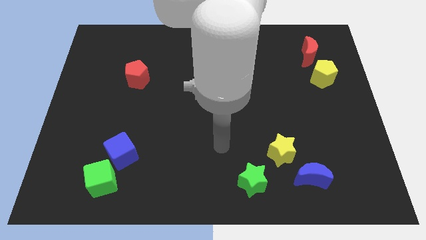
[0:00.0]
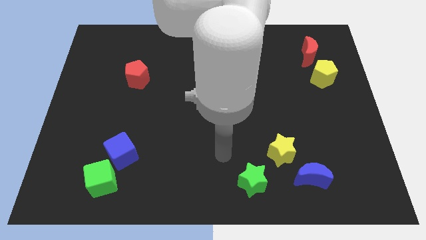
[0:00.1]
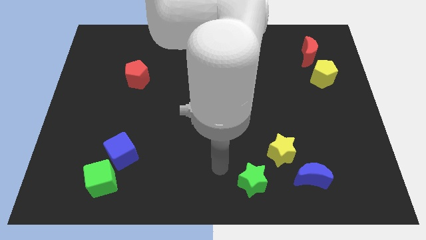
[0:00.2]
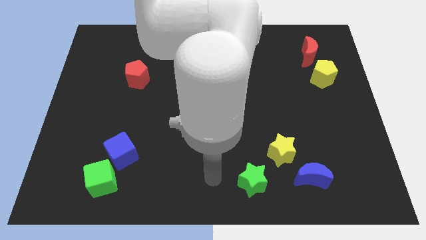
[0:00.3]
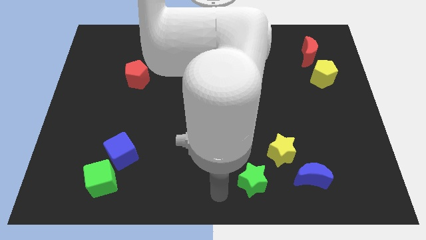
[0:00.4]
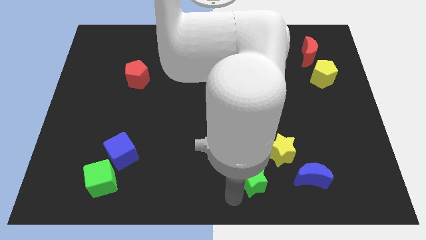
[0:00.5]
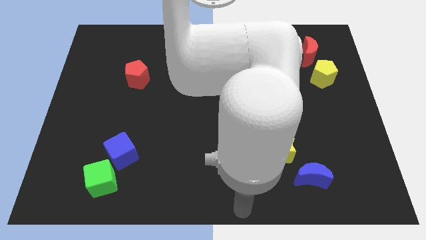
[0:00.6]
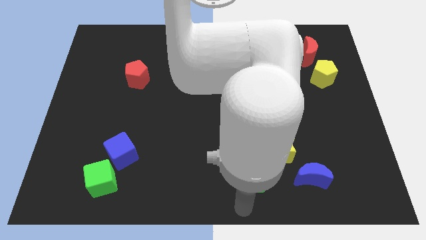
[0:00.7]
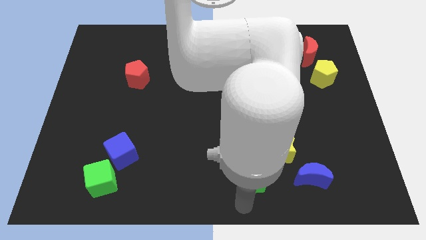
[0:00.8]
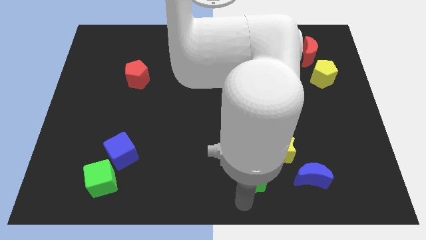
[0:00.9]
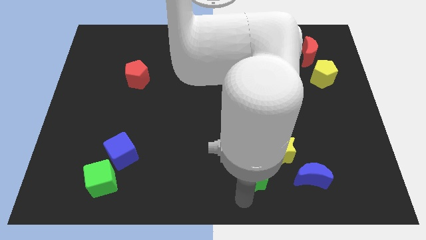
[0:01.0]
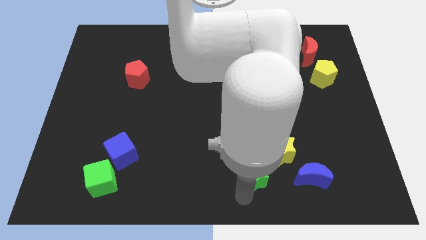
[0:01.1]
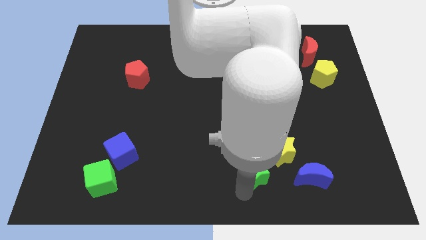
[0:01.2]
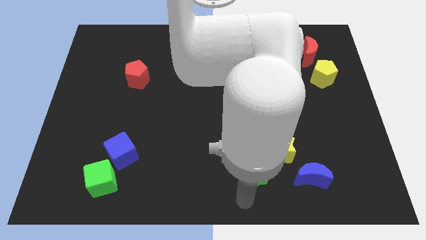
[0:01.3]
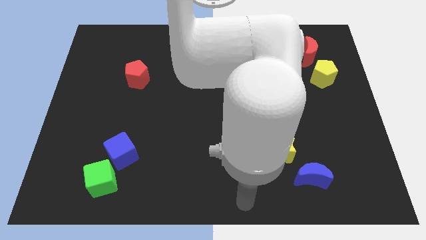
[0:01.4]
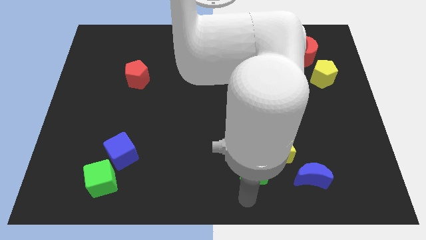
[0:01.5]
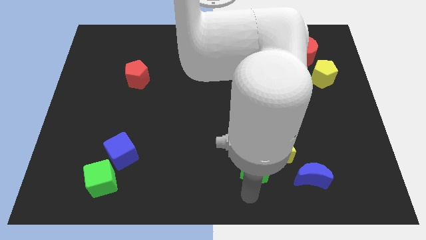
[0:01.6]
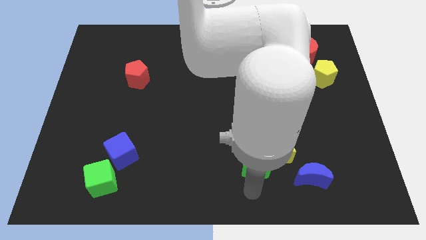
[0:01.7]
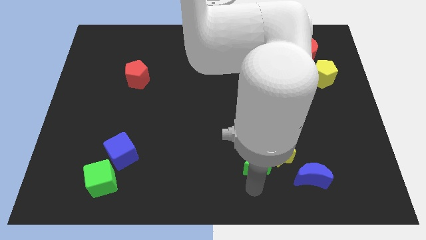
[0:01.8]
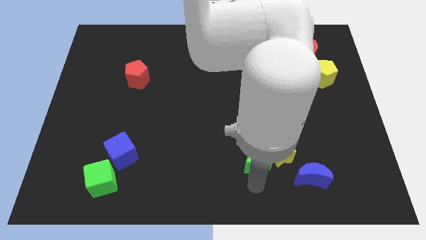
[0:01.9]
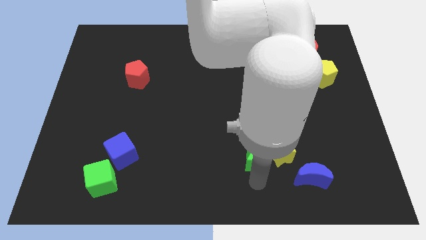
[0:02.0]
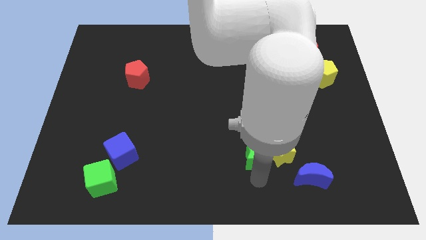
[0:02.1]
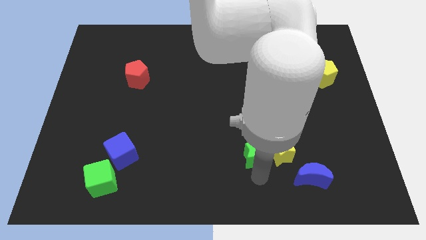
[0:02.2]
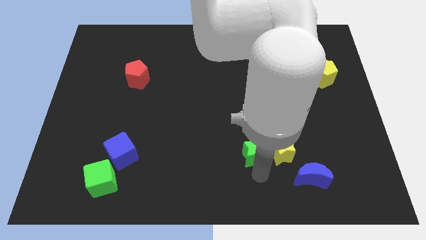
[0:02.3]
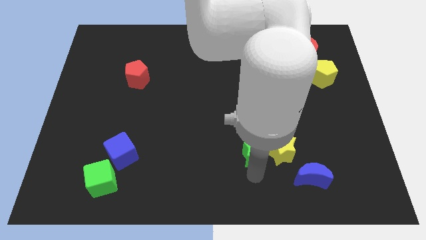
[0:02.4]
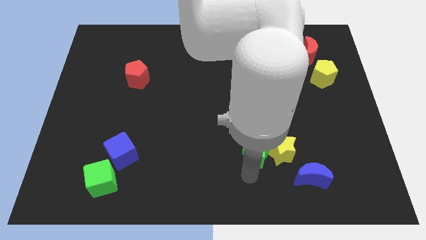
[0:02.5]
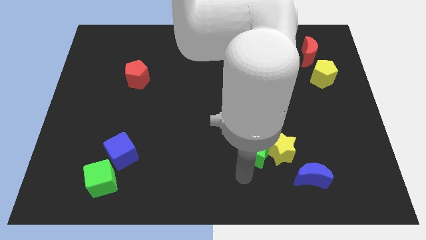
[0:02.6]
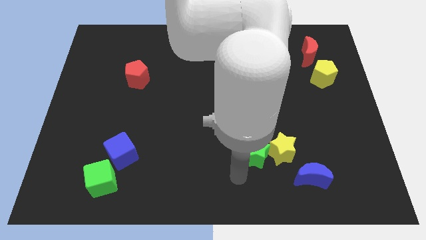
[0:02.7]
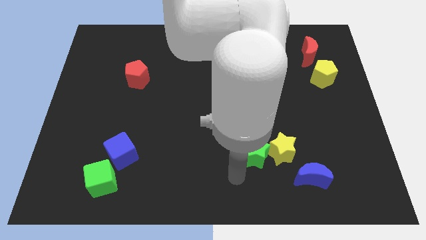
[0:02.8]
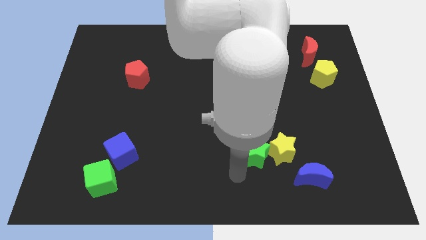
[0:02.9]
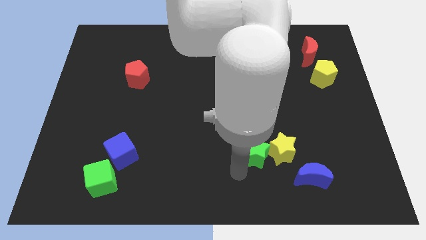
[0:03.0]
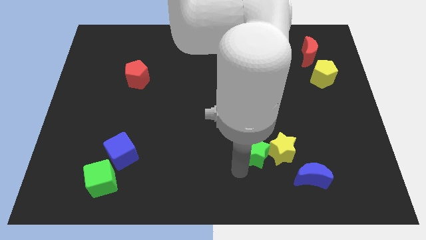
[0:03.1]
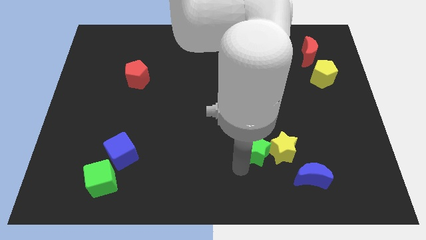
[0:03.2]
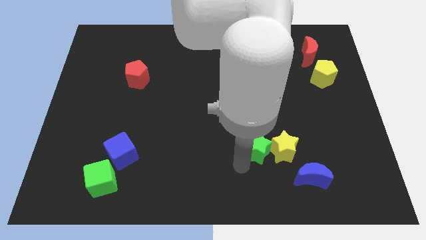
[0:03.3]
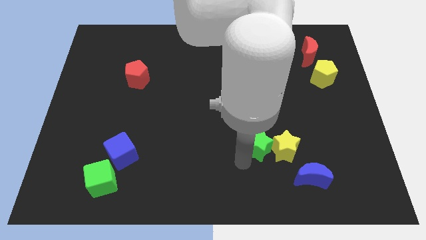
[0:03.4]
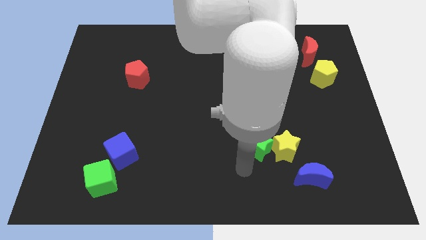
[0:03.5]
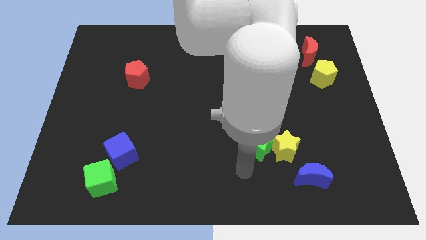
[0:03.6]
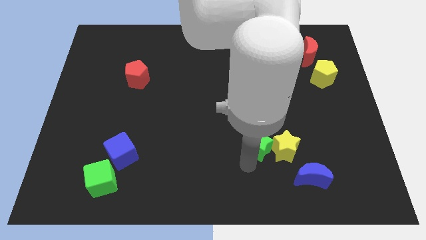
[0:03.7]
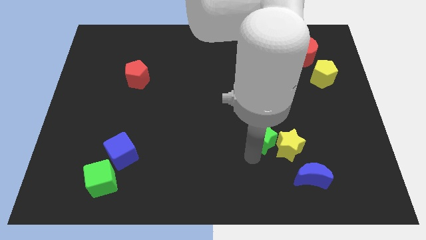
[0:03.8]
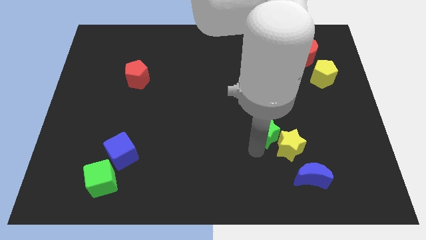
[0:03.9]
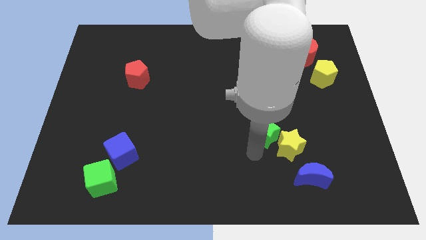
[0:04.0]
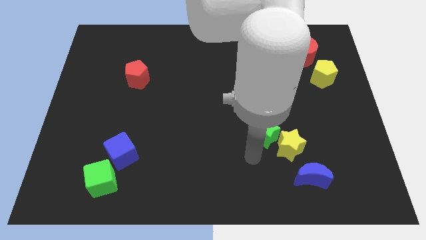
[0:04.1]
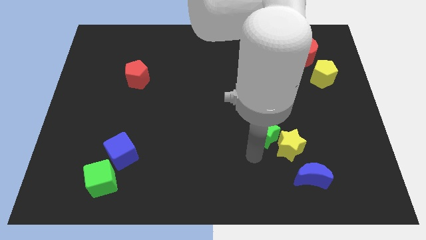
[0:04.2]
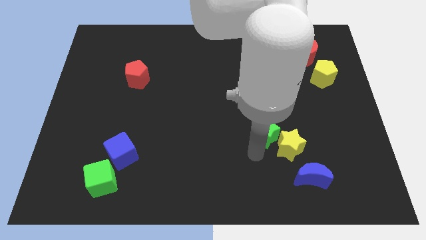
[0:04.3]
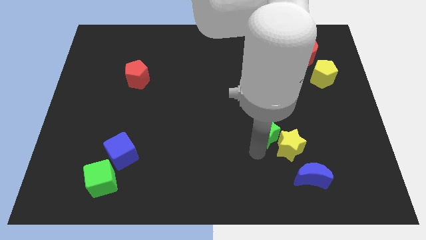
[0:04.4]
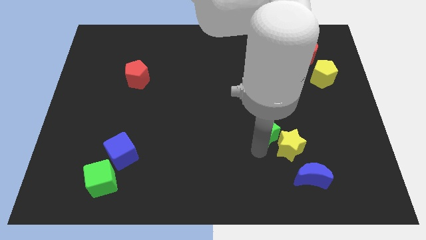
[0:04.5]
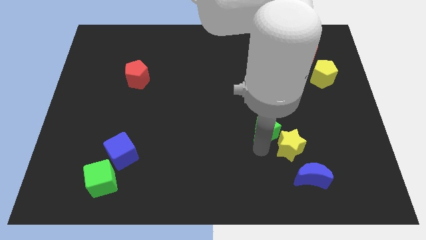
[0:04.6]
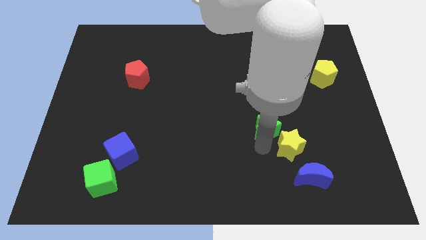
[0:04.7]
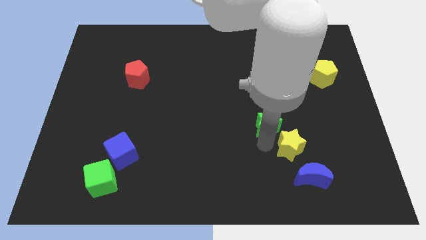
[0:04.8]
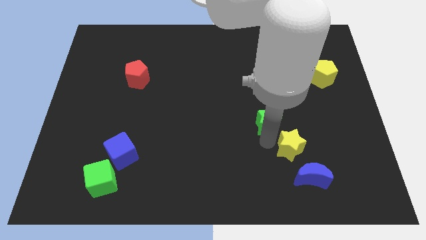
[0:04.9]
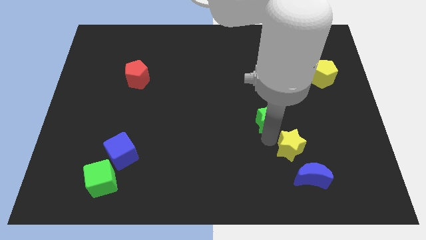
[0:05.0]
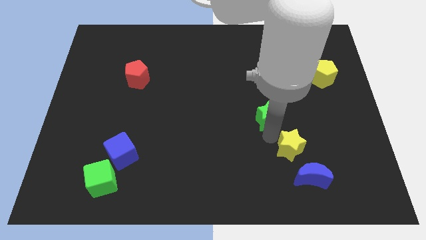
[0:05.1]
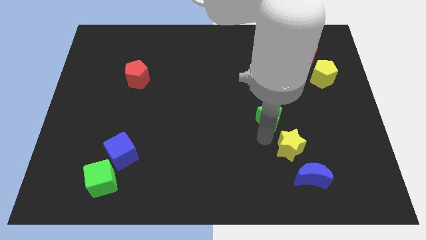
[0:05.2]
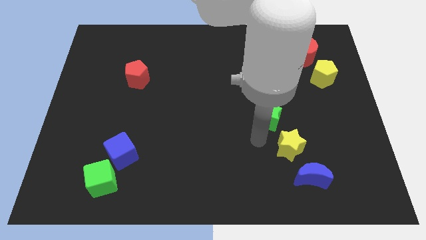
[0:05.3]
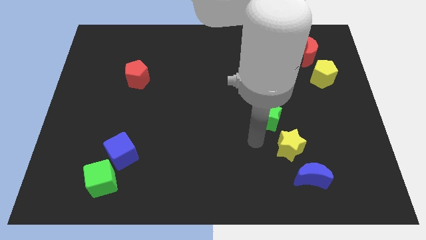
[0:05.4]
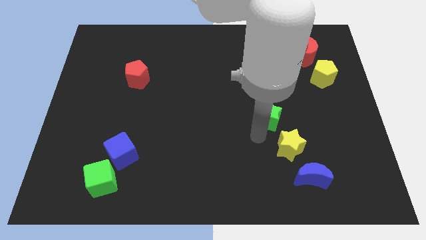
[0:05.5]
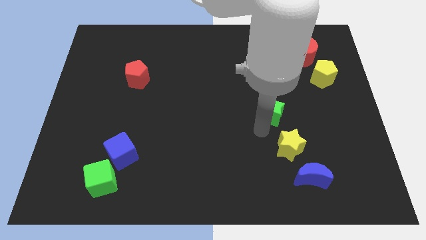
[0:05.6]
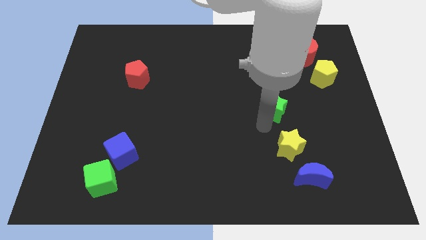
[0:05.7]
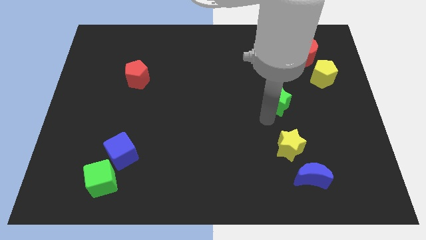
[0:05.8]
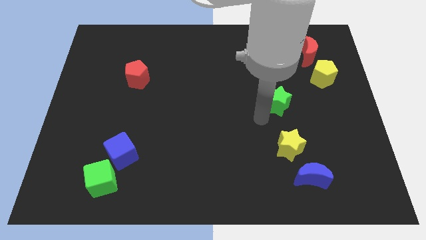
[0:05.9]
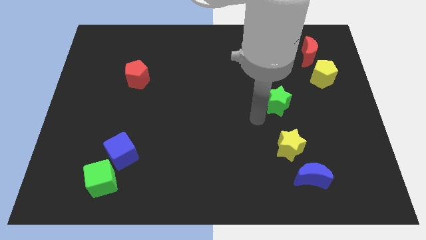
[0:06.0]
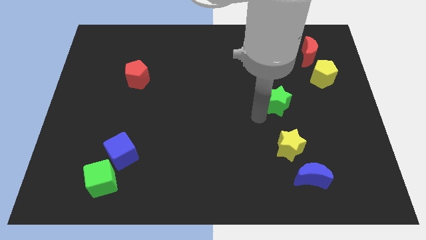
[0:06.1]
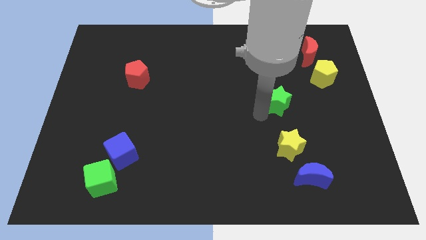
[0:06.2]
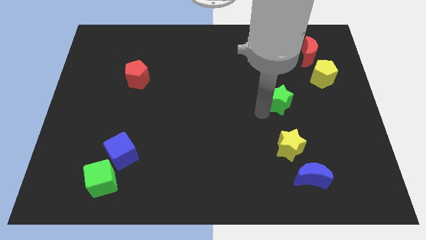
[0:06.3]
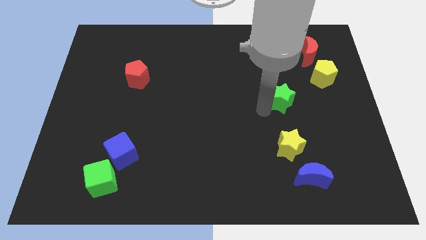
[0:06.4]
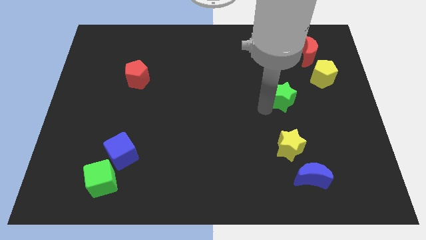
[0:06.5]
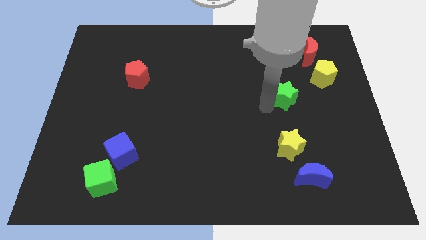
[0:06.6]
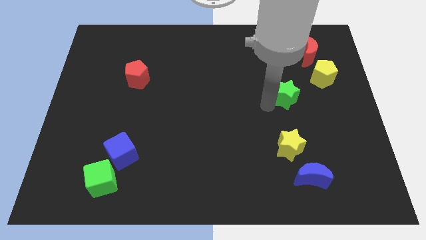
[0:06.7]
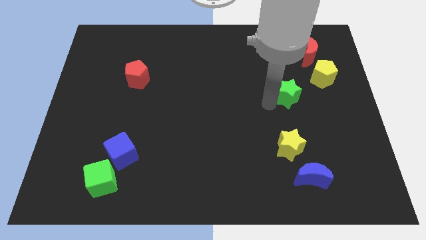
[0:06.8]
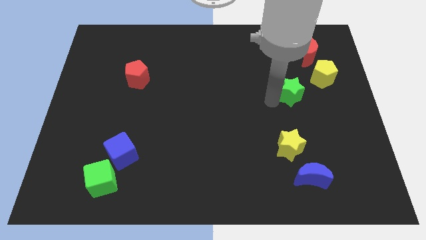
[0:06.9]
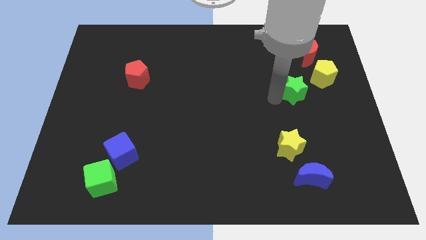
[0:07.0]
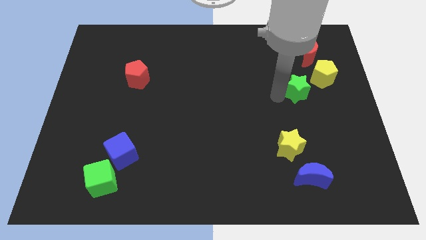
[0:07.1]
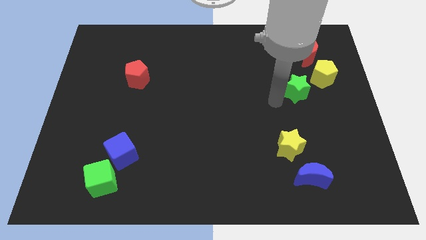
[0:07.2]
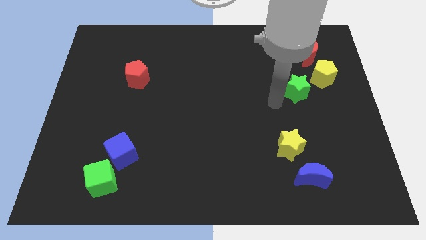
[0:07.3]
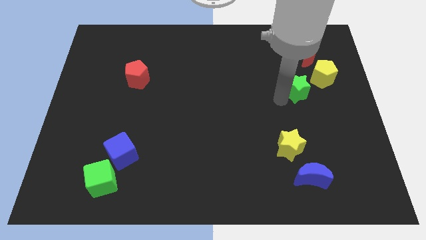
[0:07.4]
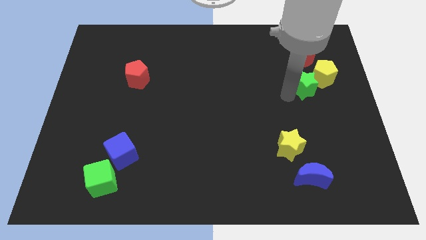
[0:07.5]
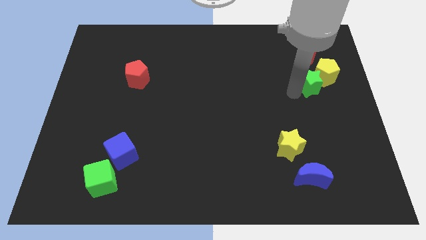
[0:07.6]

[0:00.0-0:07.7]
move the green star close to the yellow pentagon
